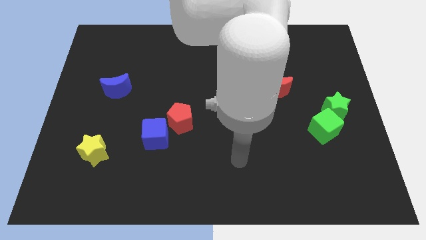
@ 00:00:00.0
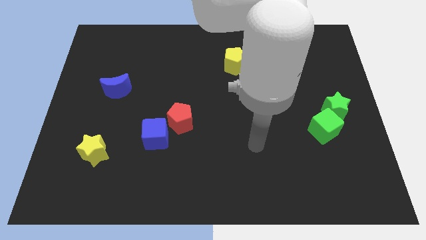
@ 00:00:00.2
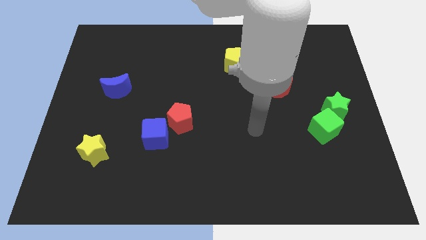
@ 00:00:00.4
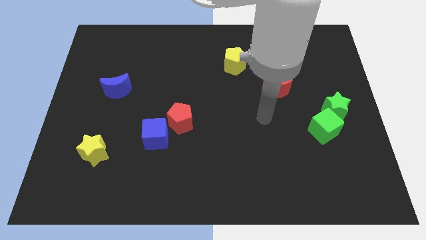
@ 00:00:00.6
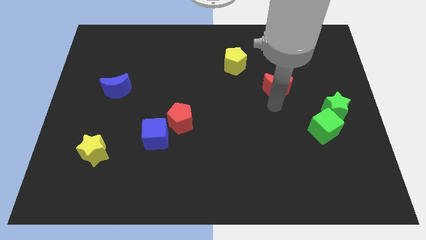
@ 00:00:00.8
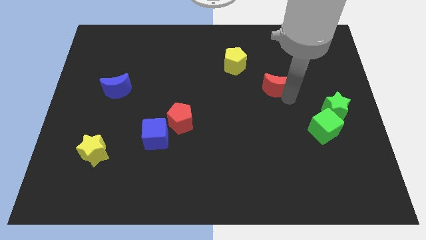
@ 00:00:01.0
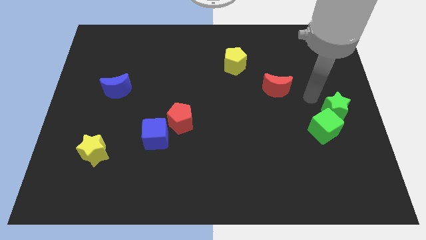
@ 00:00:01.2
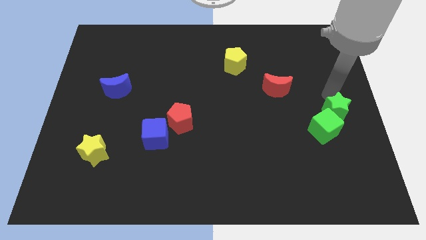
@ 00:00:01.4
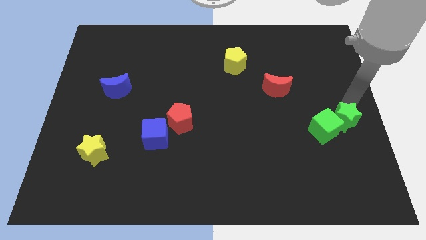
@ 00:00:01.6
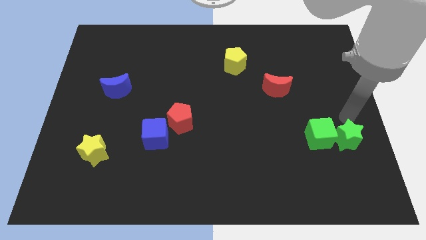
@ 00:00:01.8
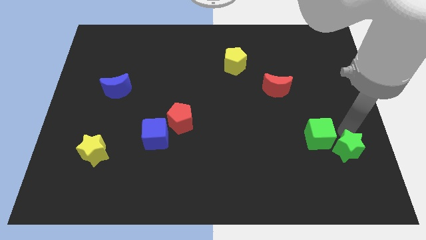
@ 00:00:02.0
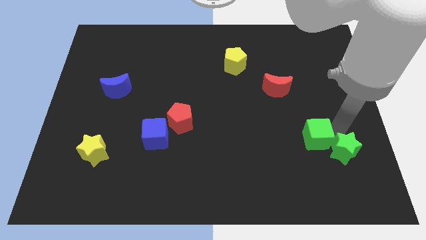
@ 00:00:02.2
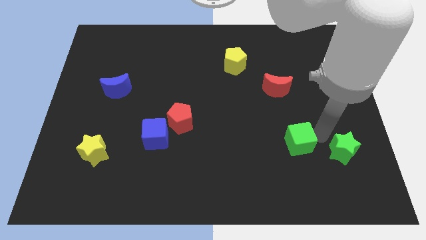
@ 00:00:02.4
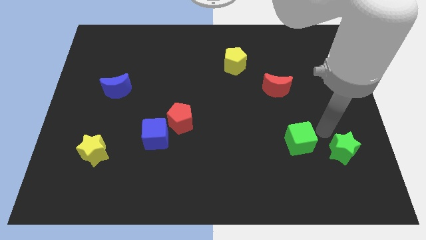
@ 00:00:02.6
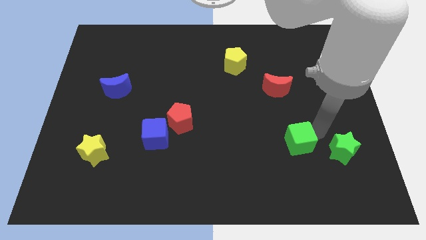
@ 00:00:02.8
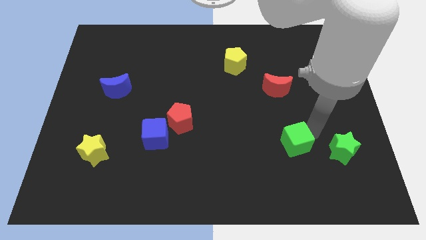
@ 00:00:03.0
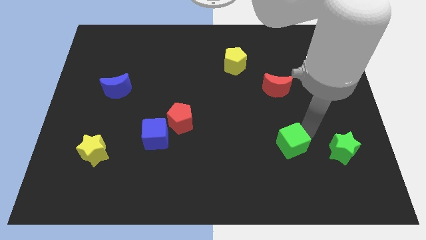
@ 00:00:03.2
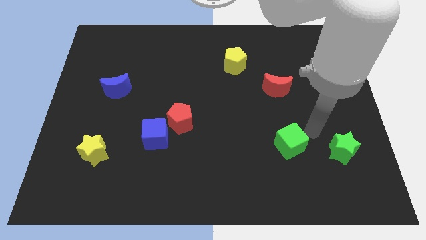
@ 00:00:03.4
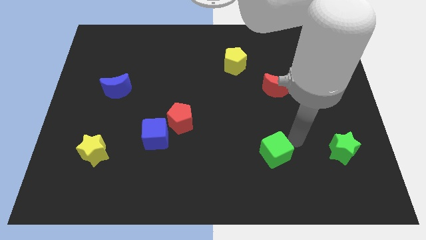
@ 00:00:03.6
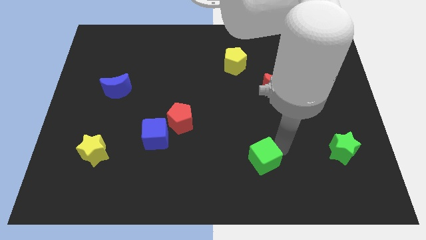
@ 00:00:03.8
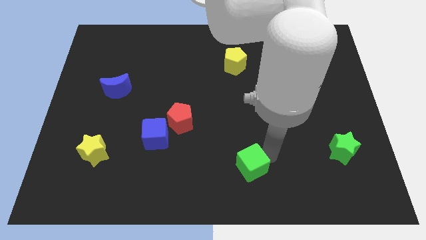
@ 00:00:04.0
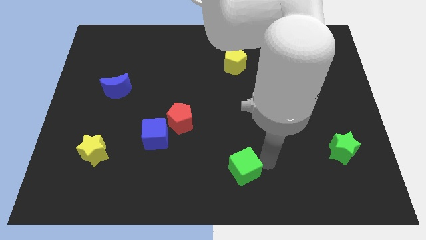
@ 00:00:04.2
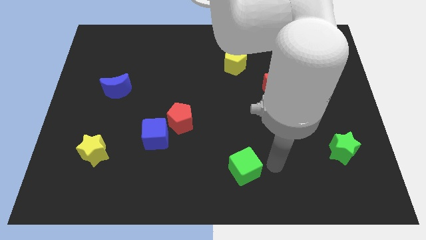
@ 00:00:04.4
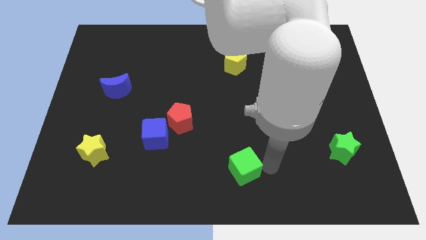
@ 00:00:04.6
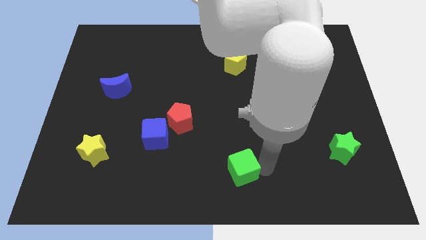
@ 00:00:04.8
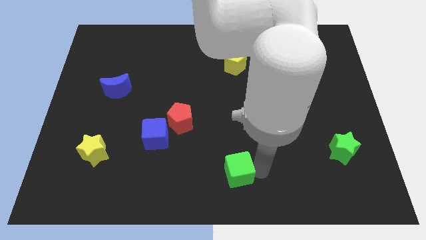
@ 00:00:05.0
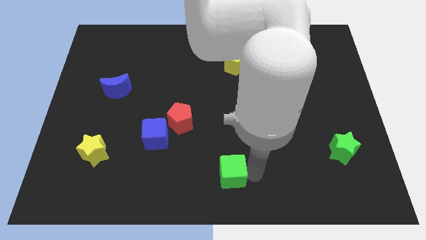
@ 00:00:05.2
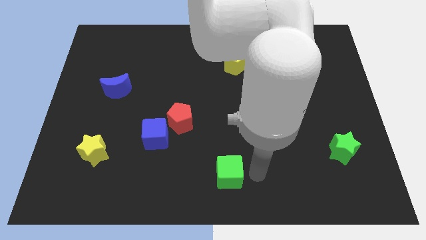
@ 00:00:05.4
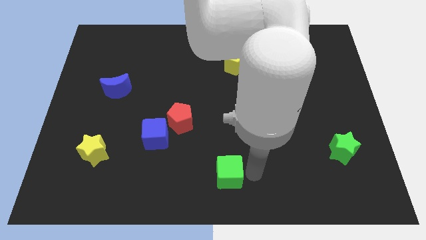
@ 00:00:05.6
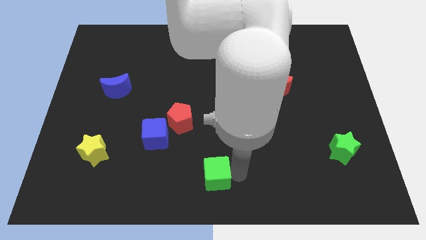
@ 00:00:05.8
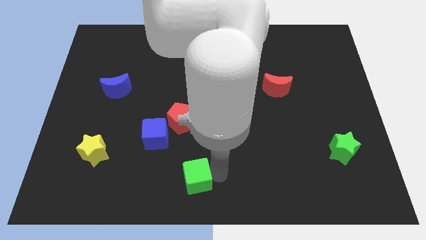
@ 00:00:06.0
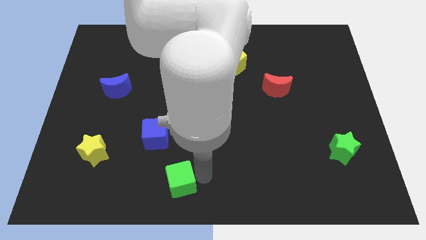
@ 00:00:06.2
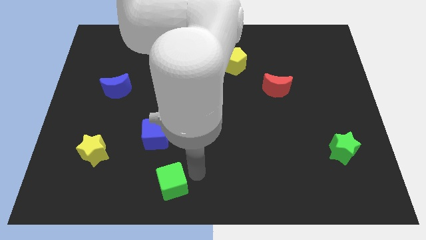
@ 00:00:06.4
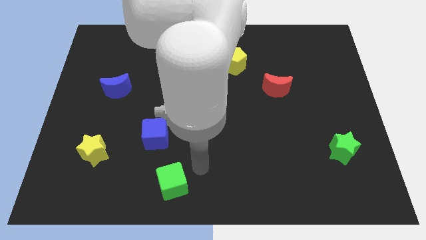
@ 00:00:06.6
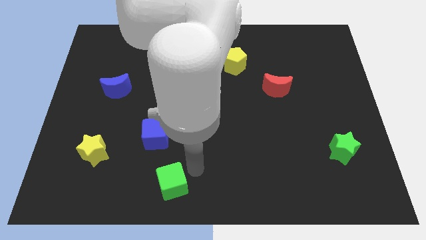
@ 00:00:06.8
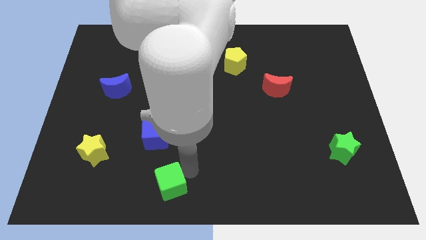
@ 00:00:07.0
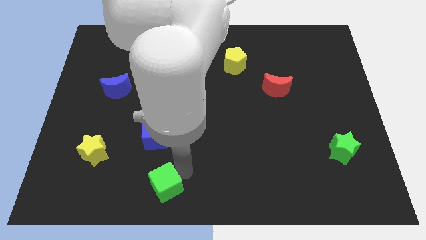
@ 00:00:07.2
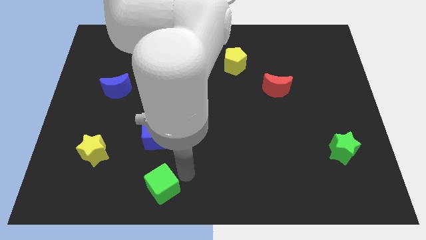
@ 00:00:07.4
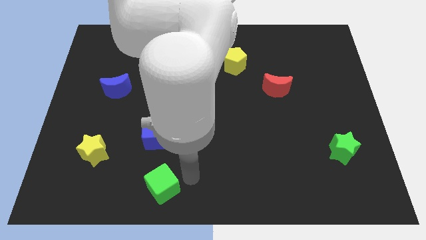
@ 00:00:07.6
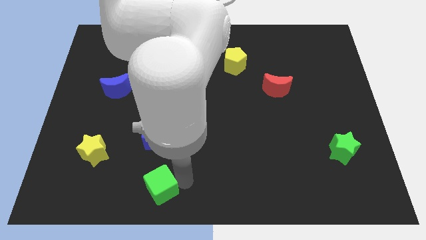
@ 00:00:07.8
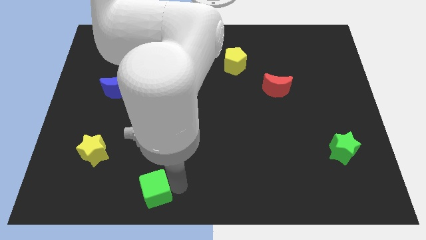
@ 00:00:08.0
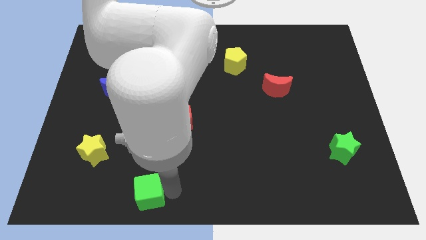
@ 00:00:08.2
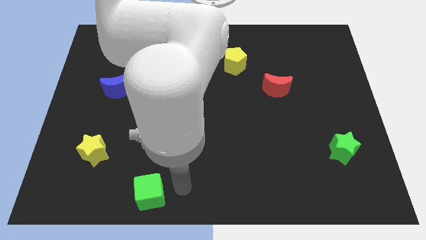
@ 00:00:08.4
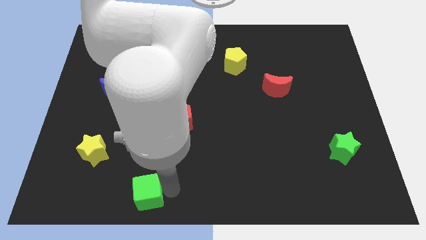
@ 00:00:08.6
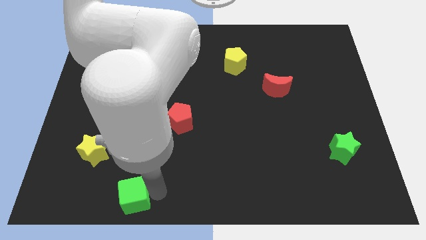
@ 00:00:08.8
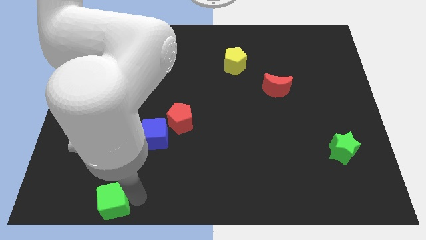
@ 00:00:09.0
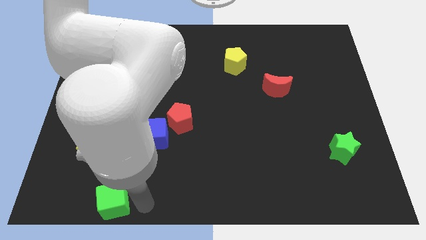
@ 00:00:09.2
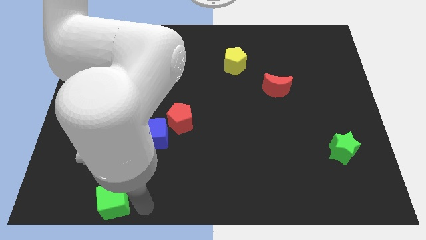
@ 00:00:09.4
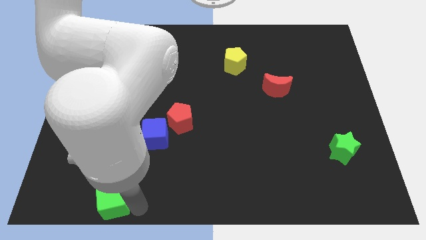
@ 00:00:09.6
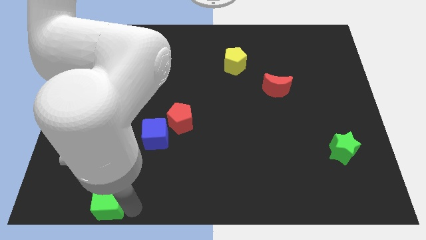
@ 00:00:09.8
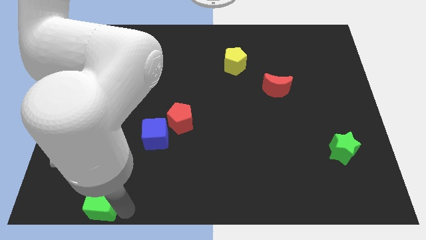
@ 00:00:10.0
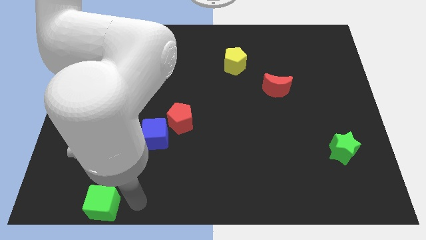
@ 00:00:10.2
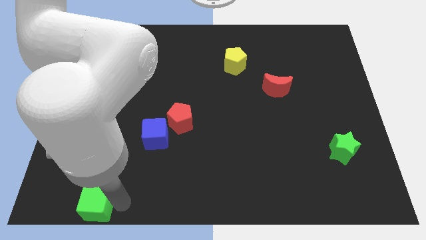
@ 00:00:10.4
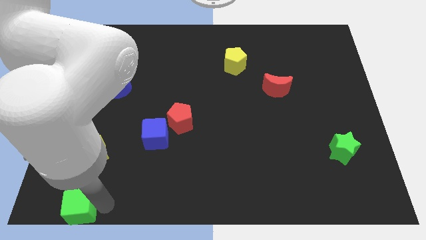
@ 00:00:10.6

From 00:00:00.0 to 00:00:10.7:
push the green cube to the bottom left corner
